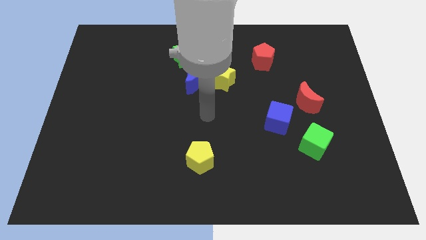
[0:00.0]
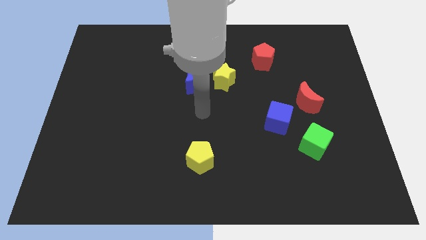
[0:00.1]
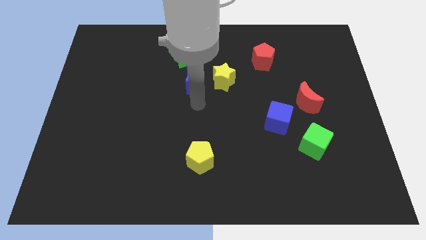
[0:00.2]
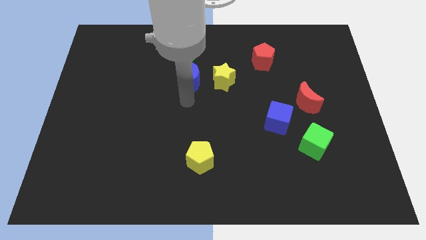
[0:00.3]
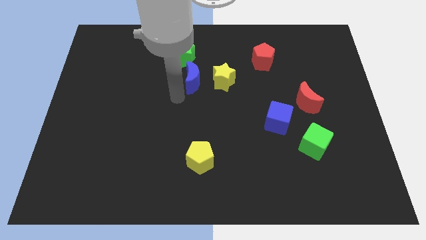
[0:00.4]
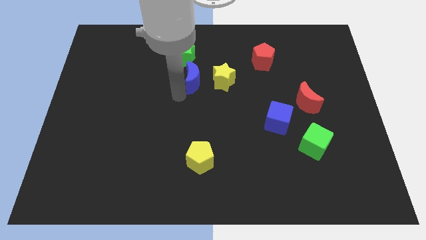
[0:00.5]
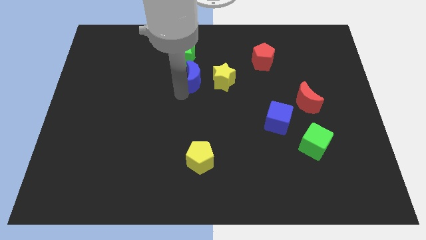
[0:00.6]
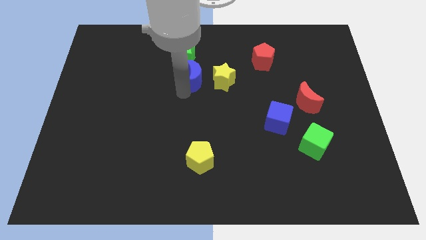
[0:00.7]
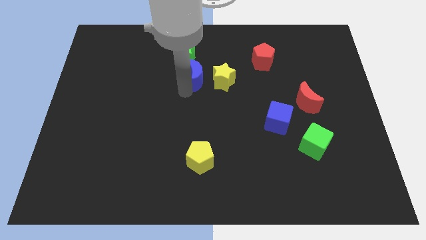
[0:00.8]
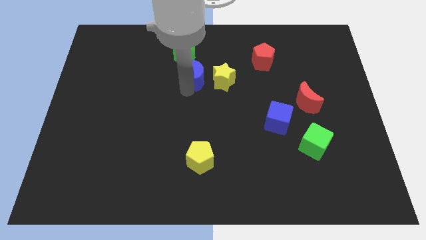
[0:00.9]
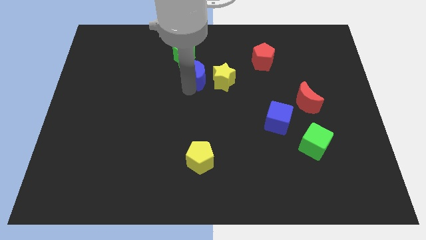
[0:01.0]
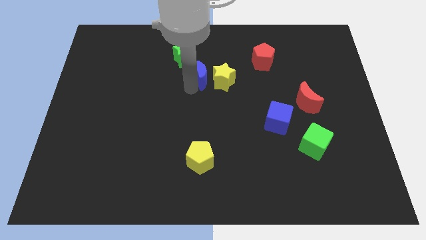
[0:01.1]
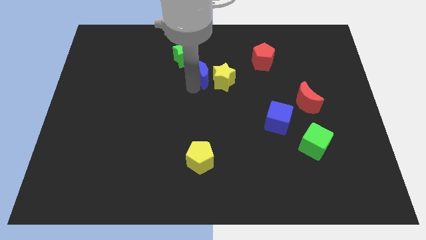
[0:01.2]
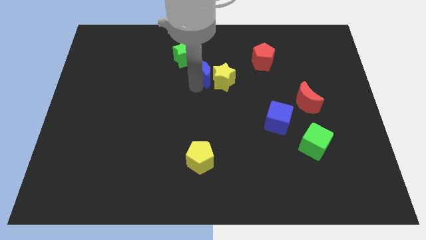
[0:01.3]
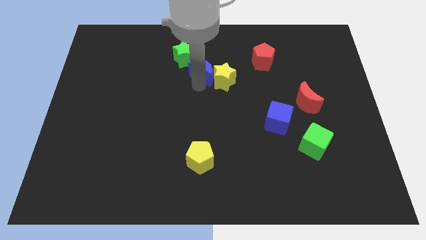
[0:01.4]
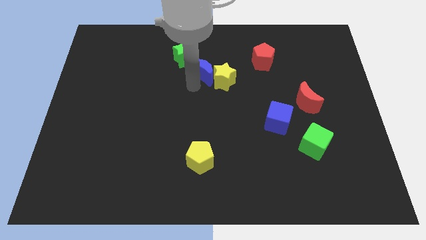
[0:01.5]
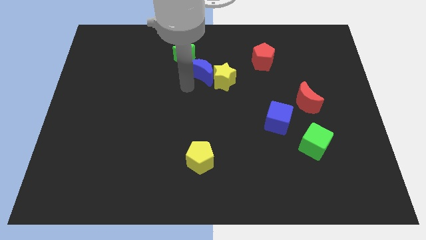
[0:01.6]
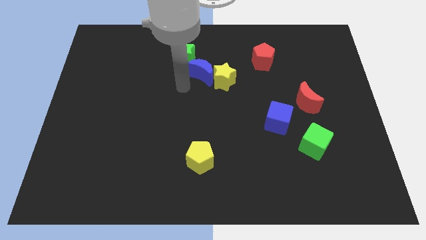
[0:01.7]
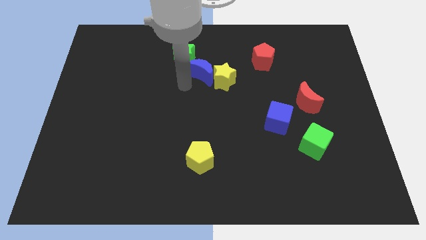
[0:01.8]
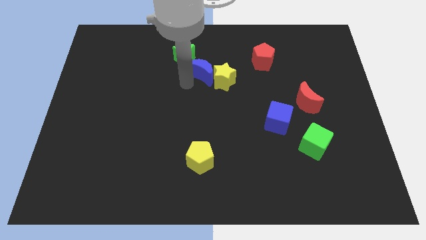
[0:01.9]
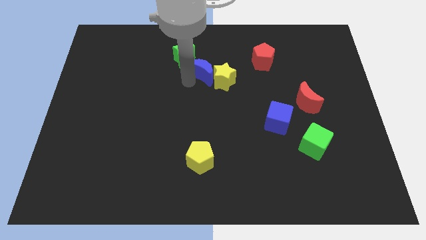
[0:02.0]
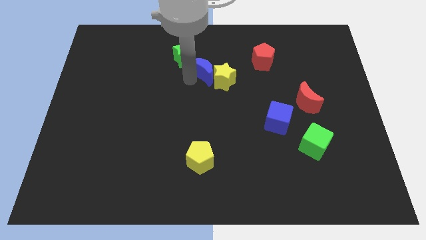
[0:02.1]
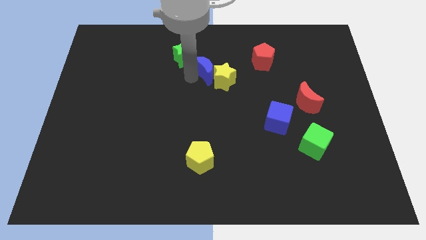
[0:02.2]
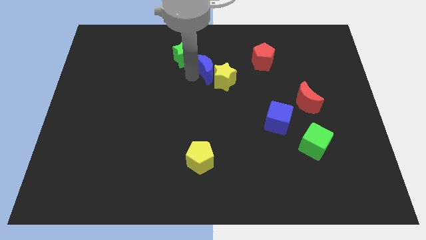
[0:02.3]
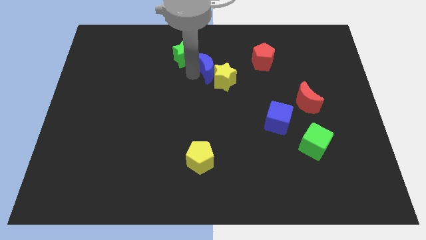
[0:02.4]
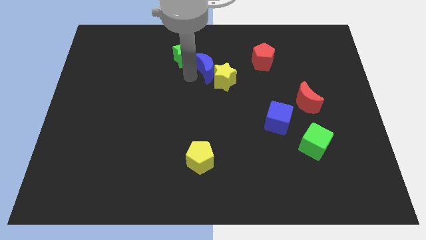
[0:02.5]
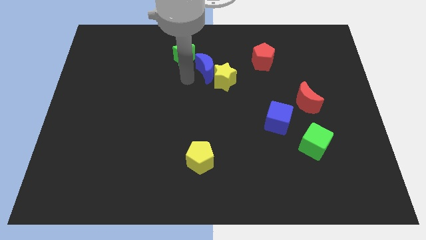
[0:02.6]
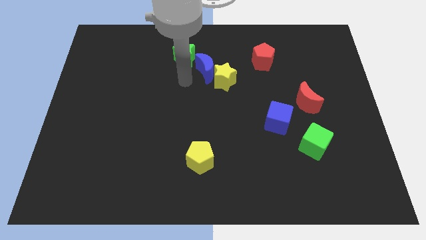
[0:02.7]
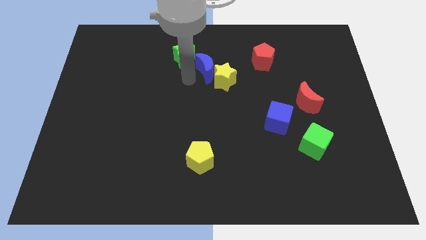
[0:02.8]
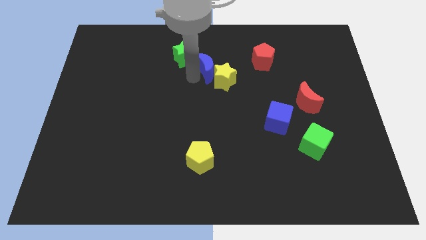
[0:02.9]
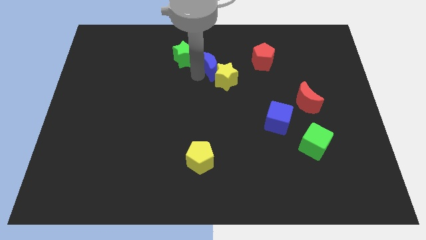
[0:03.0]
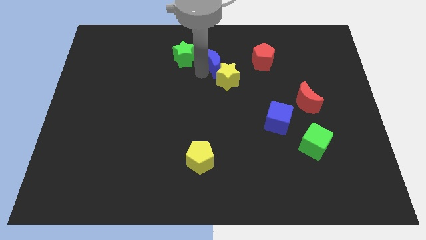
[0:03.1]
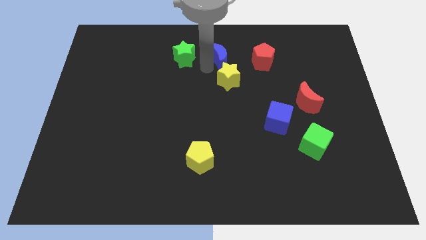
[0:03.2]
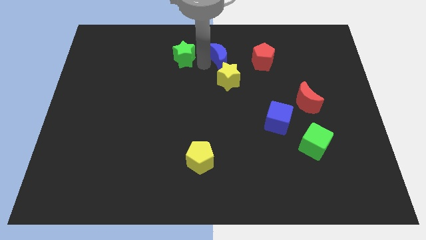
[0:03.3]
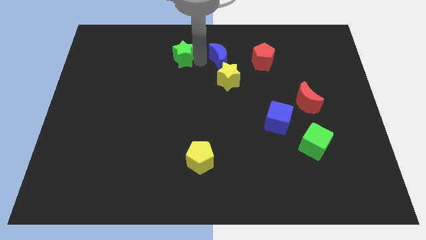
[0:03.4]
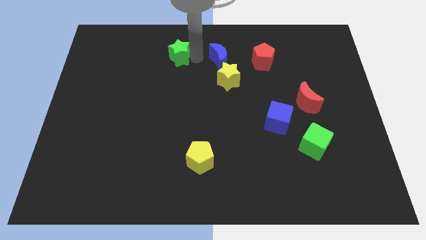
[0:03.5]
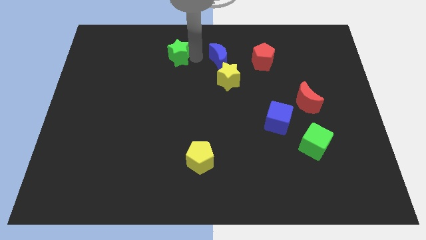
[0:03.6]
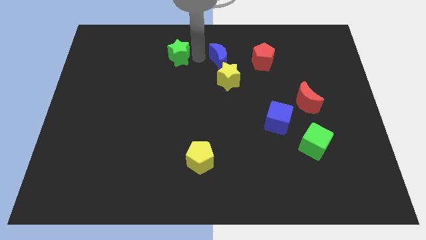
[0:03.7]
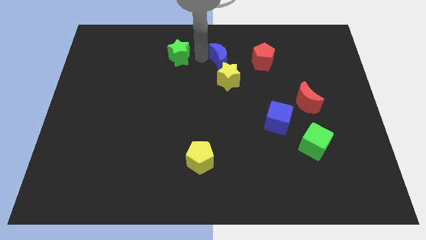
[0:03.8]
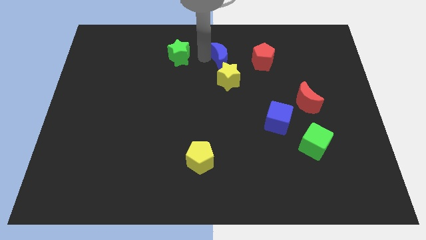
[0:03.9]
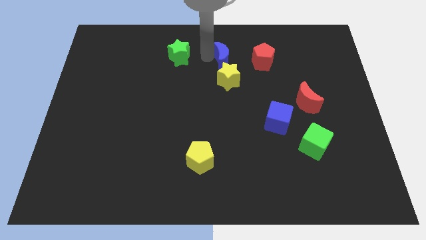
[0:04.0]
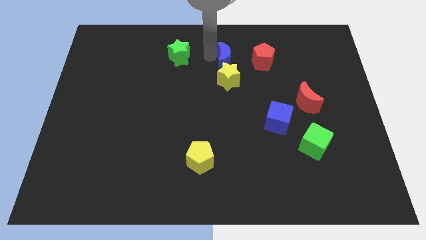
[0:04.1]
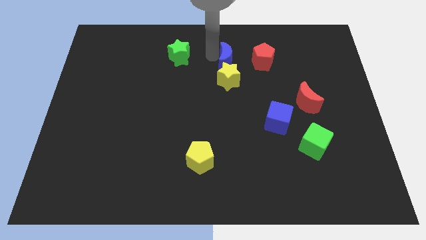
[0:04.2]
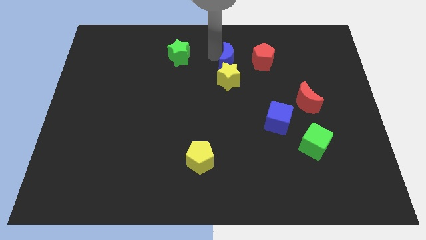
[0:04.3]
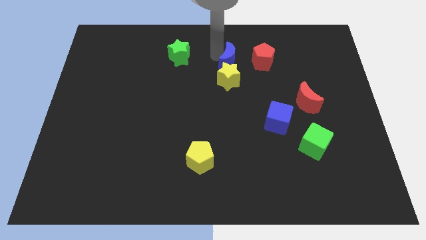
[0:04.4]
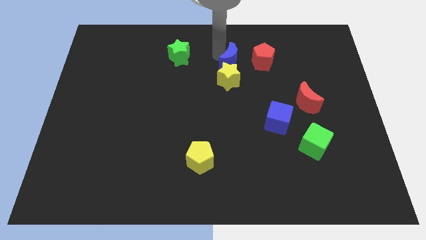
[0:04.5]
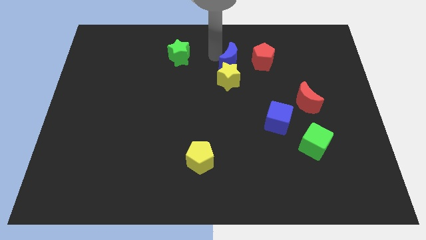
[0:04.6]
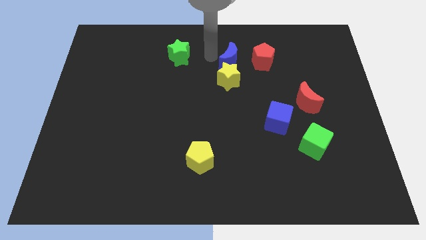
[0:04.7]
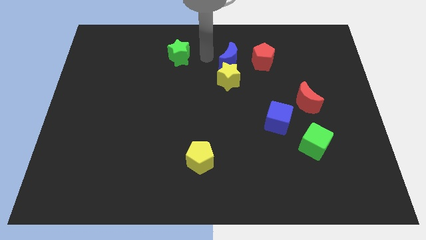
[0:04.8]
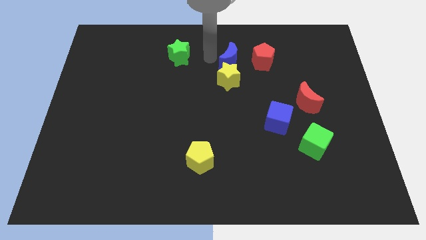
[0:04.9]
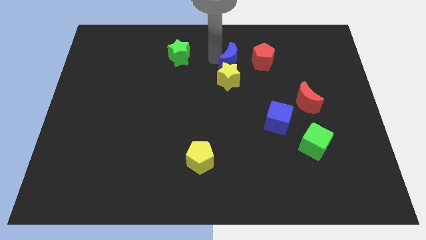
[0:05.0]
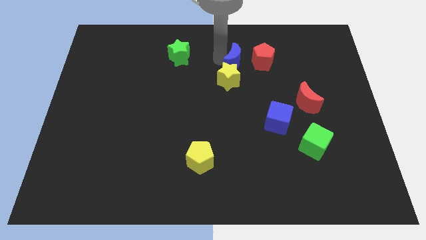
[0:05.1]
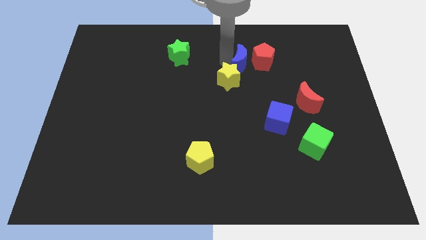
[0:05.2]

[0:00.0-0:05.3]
slide the blue moon to the red pentagon

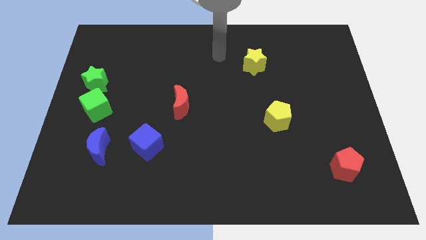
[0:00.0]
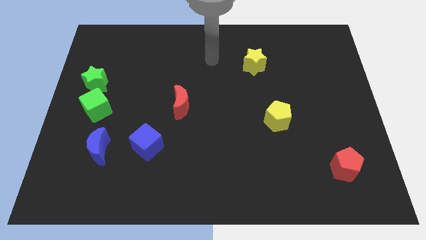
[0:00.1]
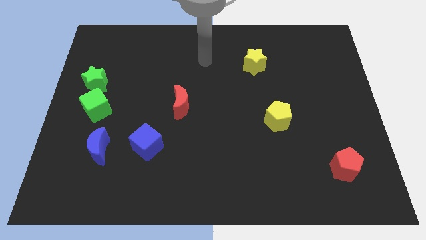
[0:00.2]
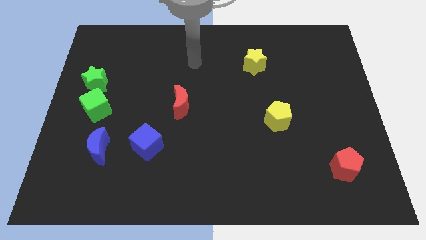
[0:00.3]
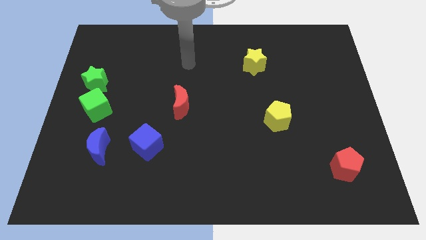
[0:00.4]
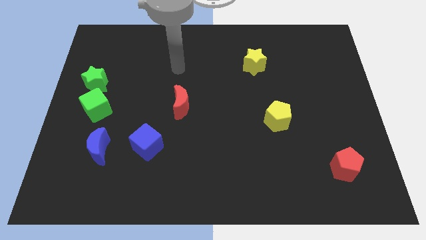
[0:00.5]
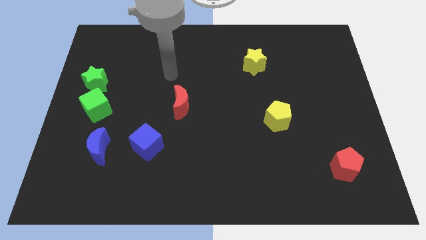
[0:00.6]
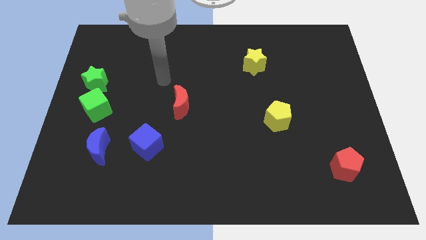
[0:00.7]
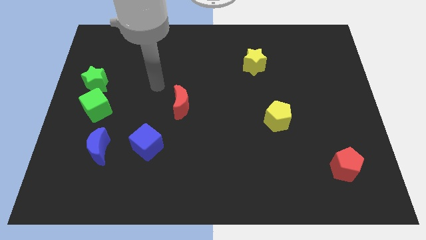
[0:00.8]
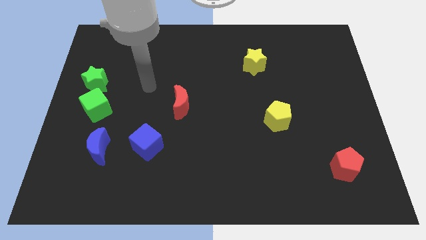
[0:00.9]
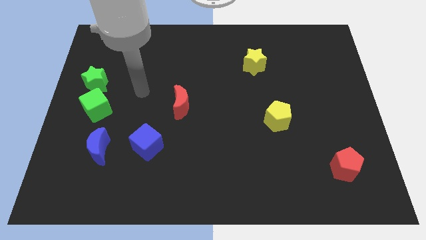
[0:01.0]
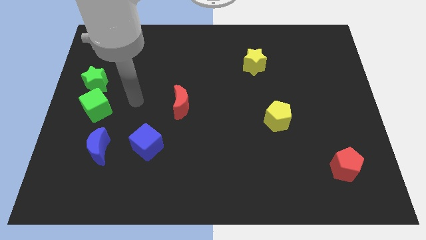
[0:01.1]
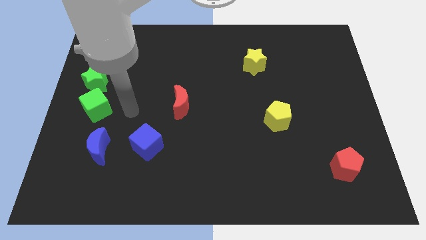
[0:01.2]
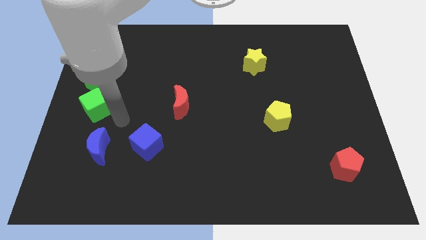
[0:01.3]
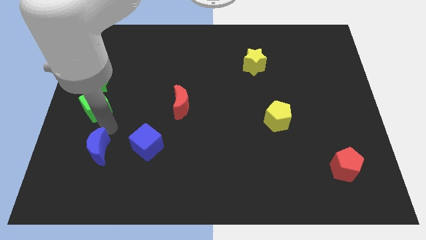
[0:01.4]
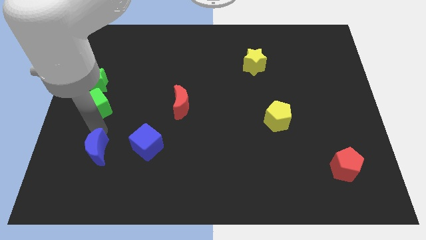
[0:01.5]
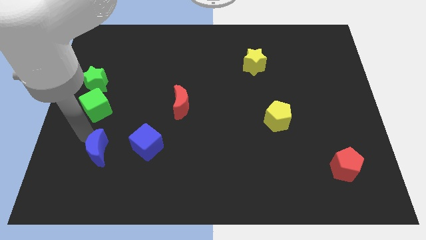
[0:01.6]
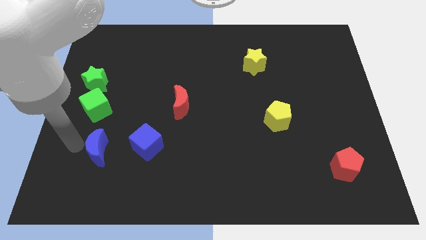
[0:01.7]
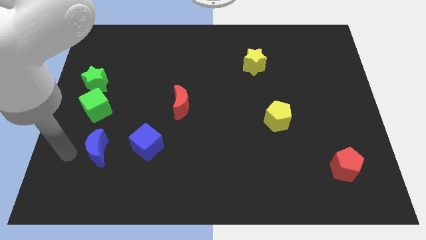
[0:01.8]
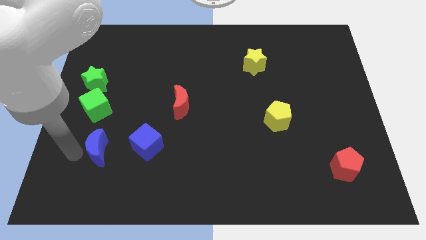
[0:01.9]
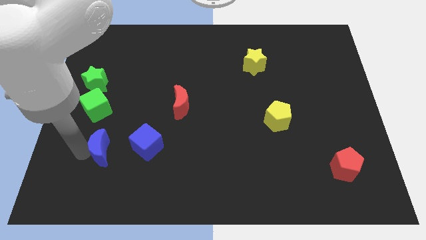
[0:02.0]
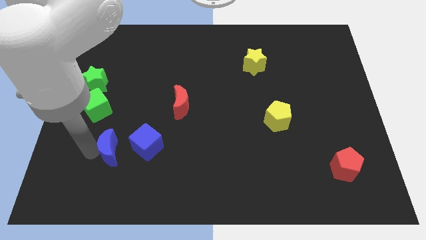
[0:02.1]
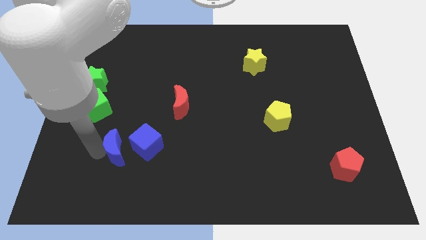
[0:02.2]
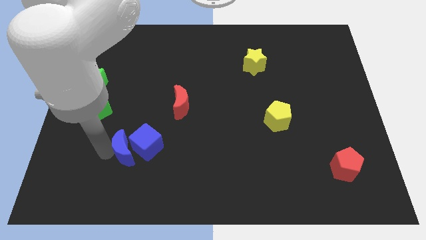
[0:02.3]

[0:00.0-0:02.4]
push the blue moon towards the blue cube
